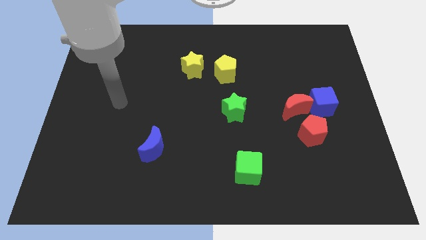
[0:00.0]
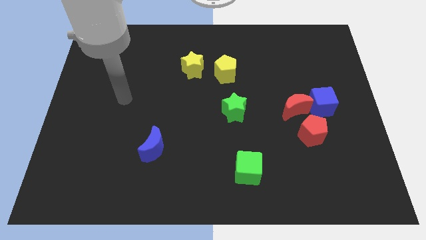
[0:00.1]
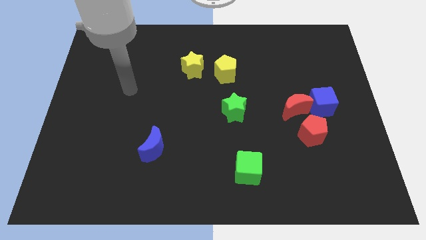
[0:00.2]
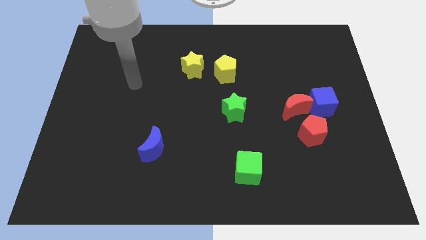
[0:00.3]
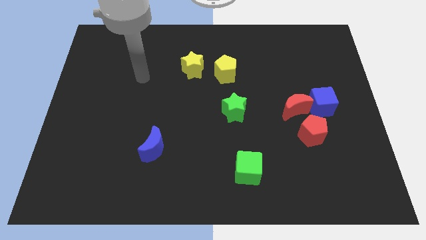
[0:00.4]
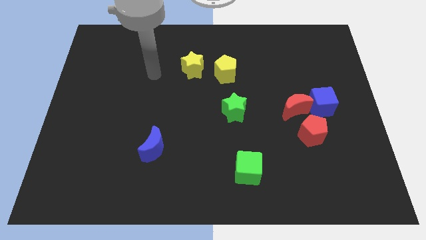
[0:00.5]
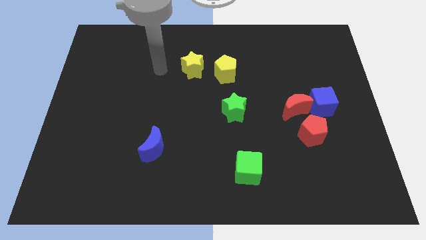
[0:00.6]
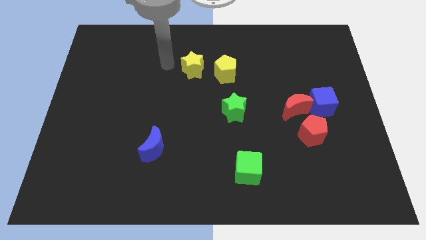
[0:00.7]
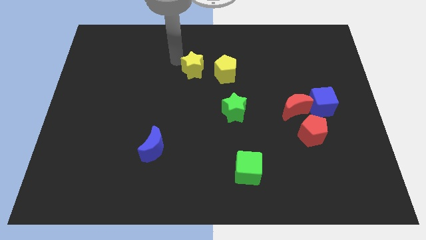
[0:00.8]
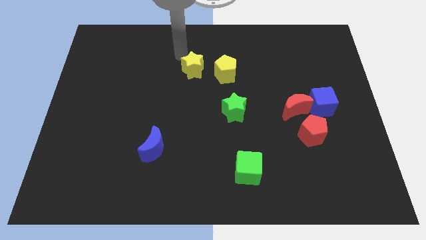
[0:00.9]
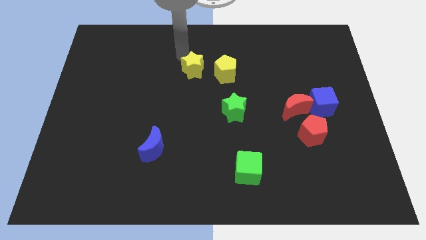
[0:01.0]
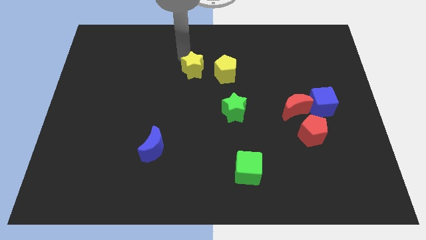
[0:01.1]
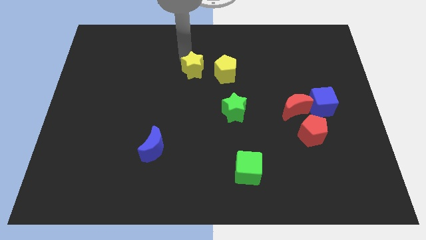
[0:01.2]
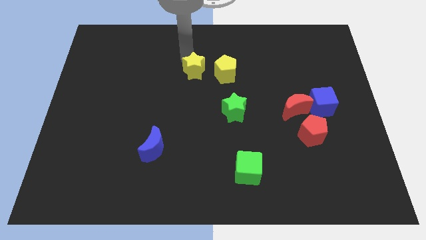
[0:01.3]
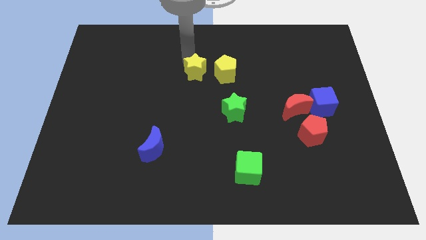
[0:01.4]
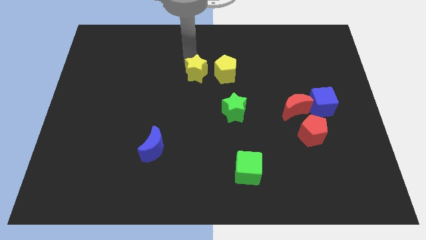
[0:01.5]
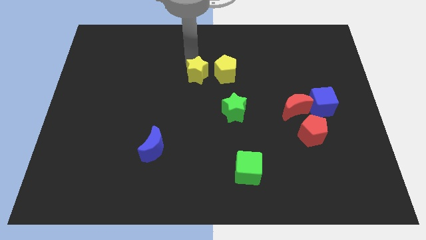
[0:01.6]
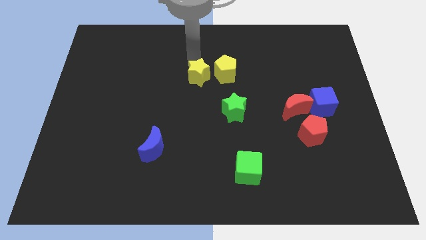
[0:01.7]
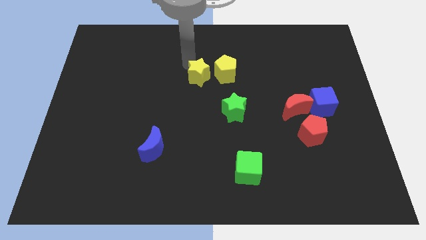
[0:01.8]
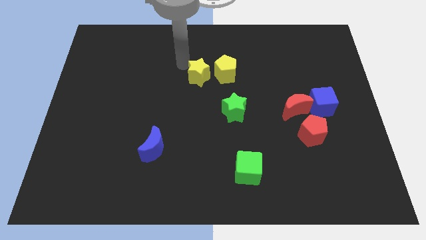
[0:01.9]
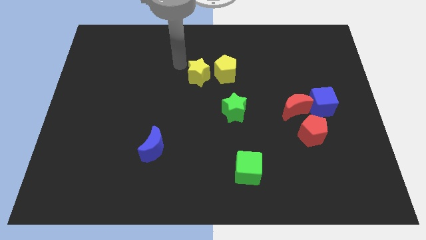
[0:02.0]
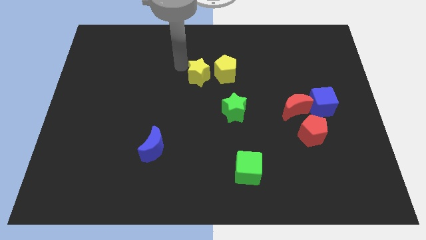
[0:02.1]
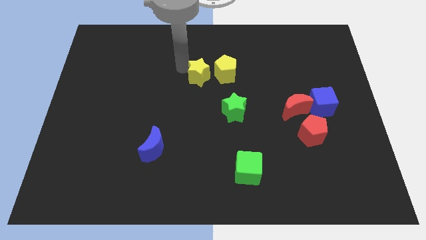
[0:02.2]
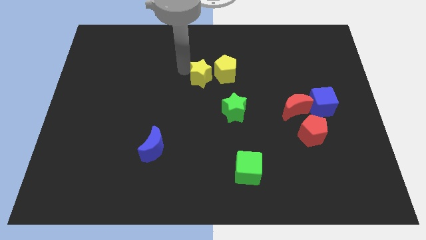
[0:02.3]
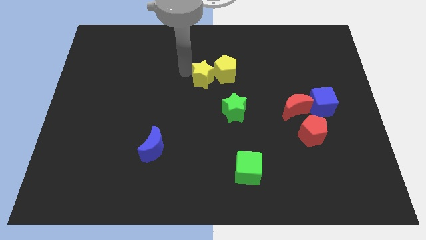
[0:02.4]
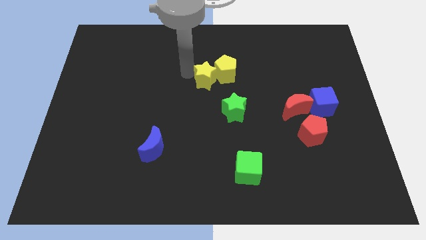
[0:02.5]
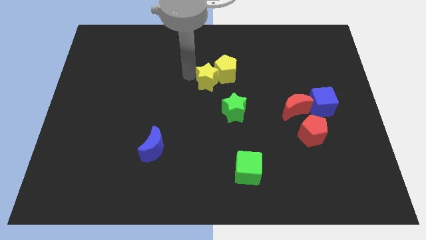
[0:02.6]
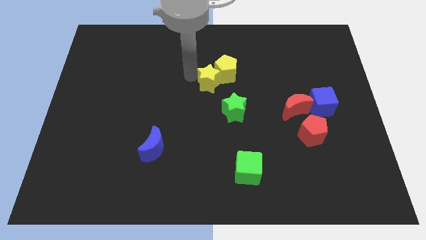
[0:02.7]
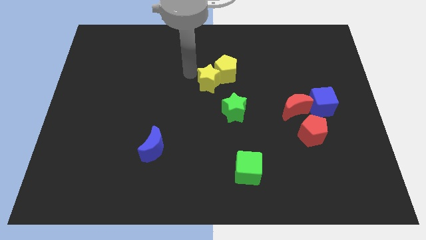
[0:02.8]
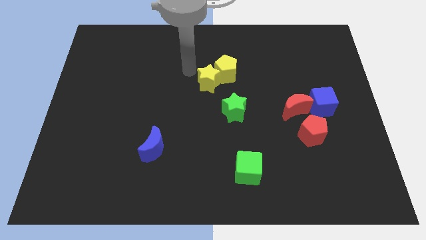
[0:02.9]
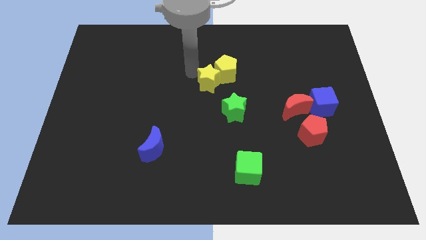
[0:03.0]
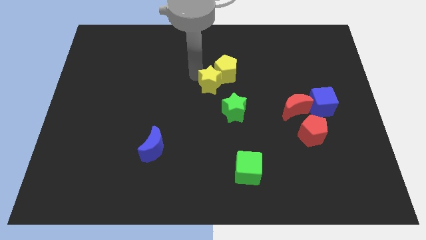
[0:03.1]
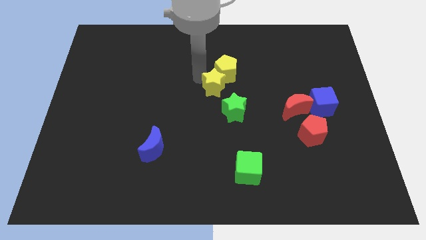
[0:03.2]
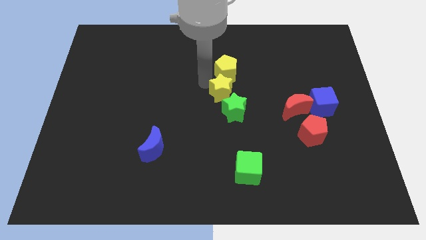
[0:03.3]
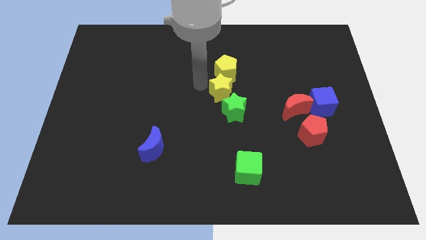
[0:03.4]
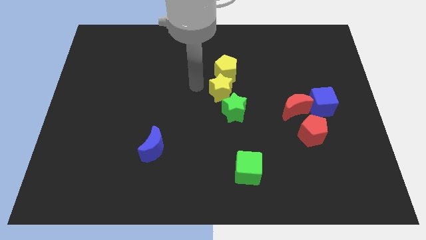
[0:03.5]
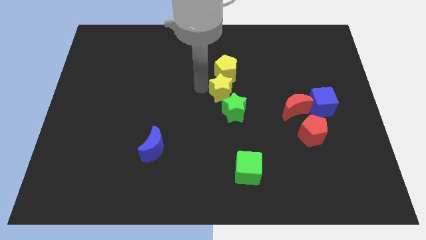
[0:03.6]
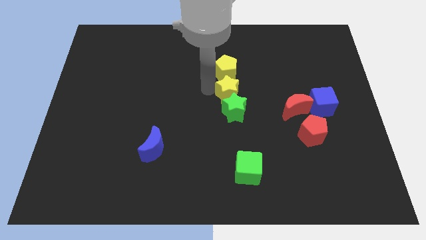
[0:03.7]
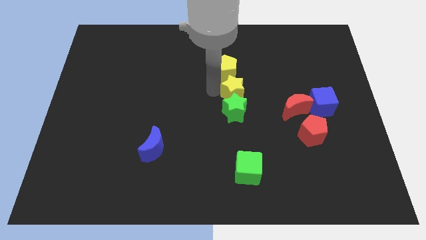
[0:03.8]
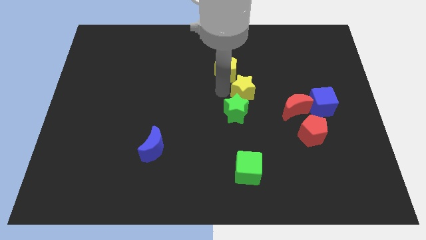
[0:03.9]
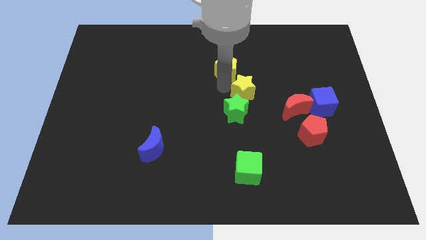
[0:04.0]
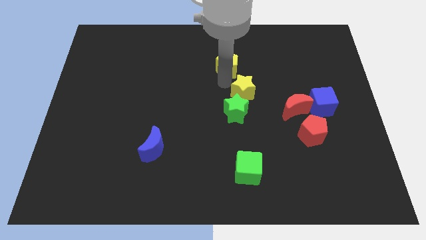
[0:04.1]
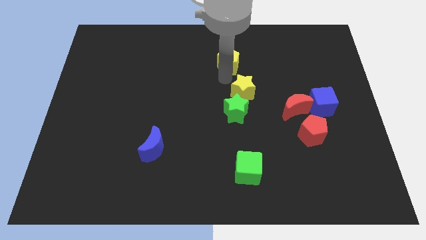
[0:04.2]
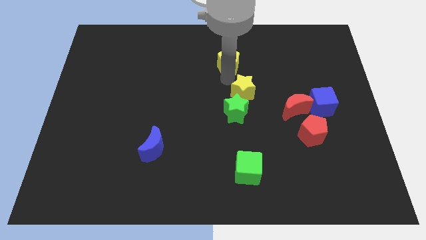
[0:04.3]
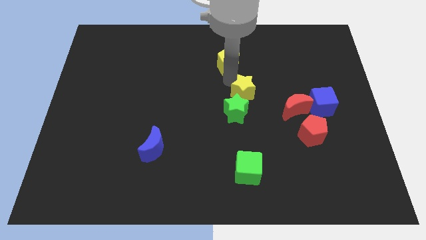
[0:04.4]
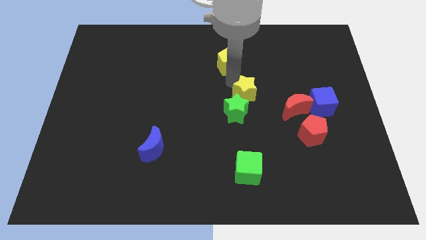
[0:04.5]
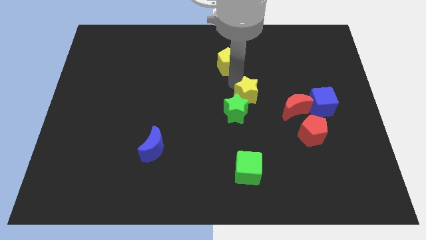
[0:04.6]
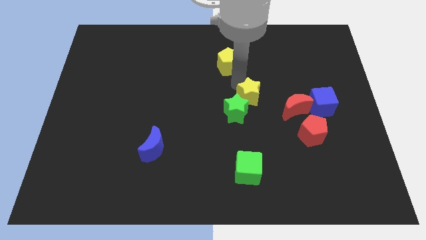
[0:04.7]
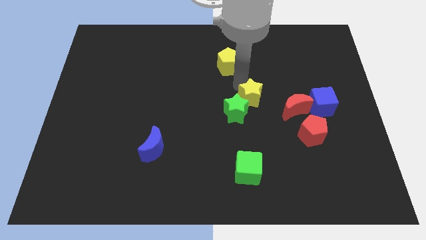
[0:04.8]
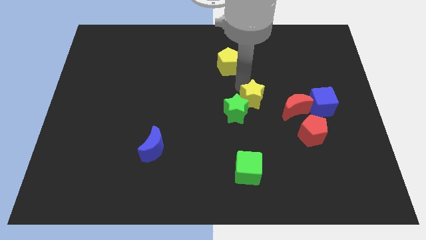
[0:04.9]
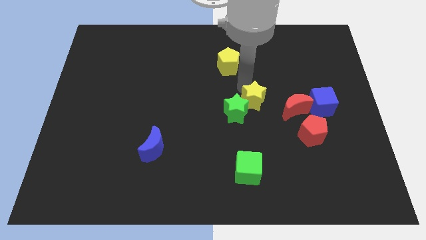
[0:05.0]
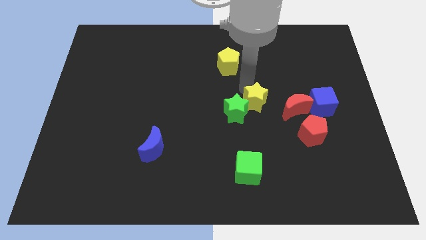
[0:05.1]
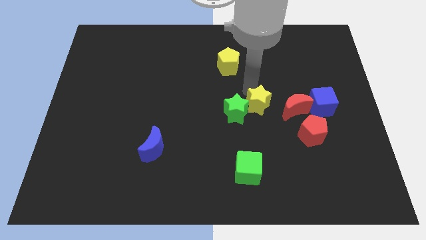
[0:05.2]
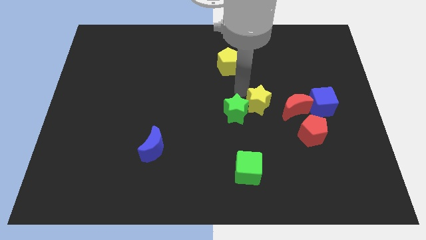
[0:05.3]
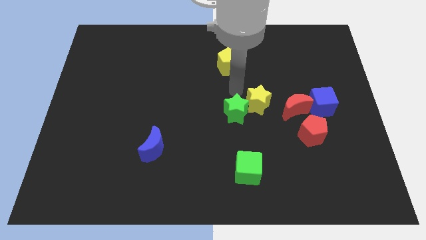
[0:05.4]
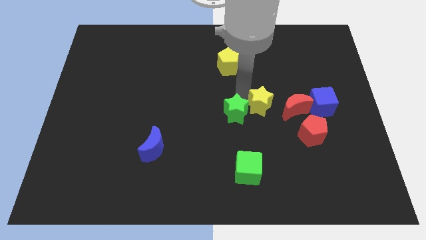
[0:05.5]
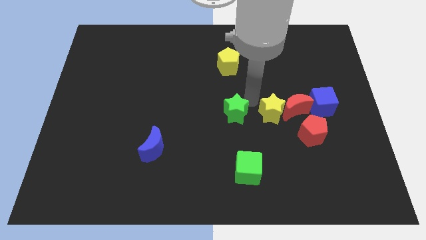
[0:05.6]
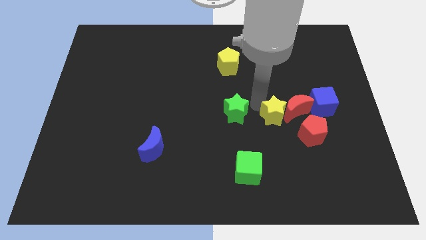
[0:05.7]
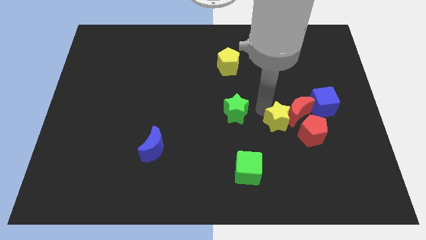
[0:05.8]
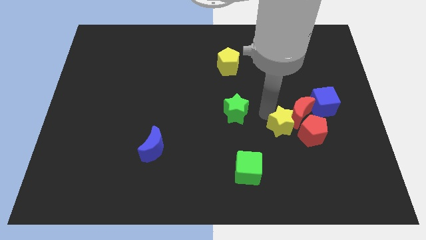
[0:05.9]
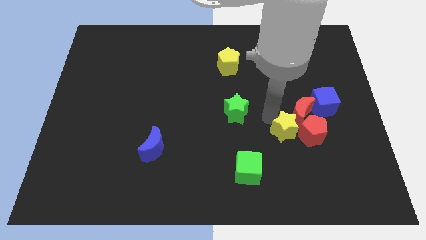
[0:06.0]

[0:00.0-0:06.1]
slide the yellow star to the red pentagon

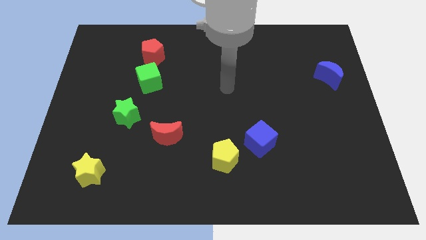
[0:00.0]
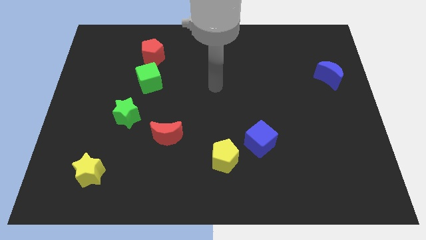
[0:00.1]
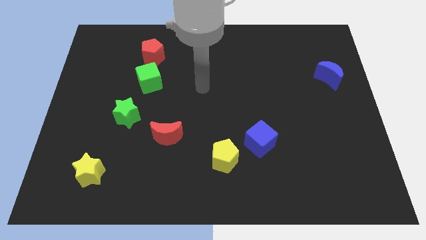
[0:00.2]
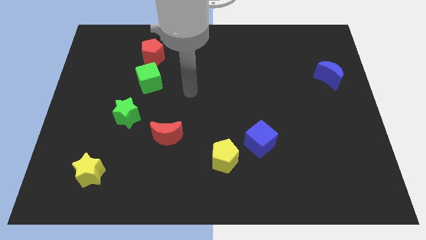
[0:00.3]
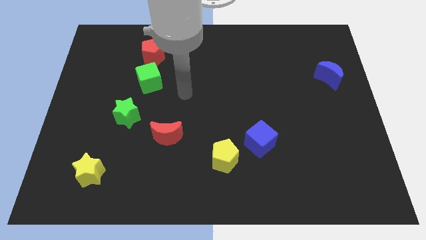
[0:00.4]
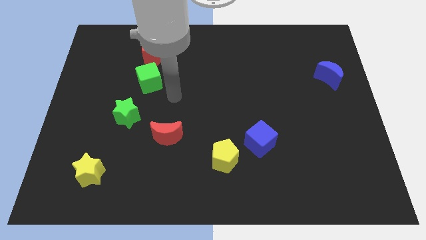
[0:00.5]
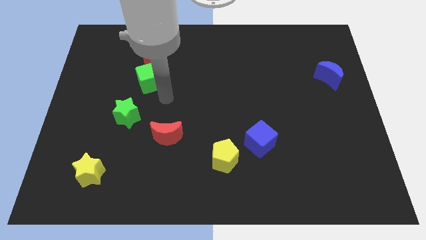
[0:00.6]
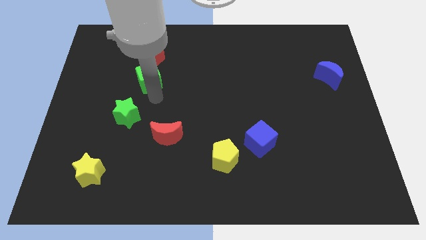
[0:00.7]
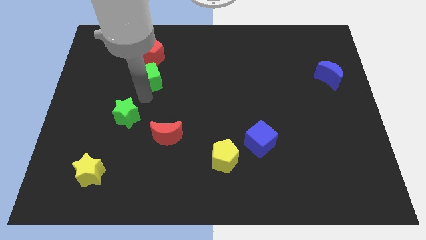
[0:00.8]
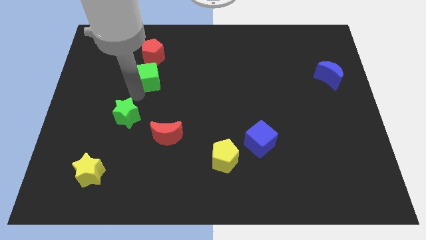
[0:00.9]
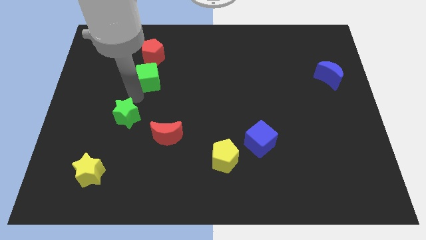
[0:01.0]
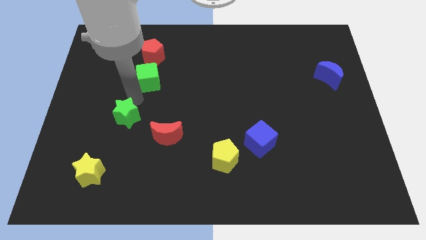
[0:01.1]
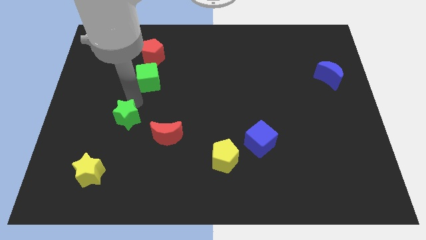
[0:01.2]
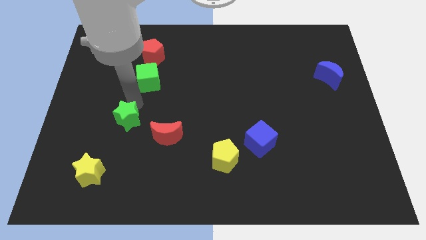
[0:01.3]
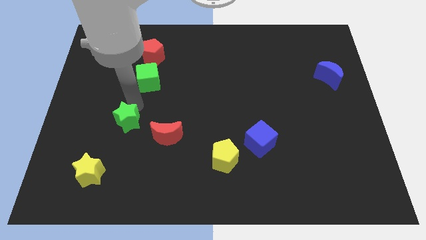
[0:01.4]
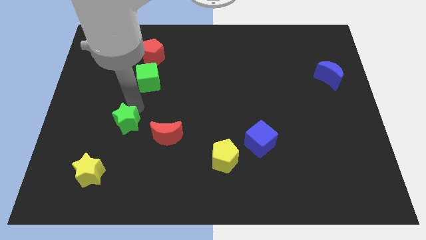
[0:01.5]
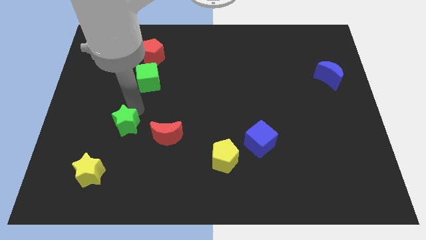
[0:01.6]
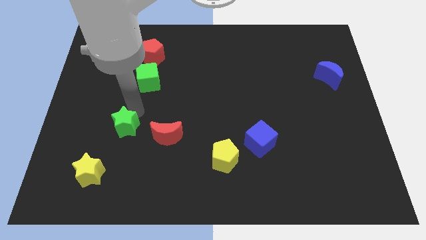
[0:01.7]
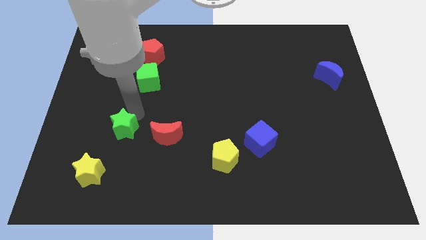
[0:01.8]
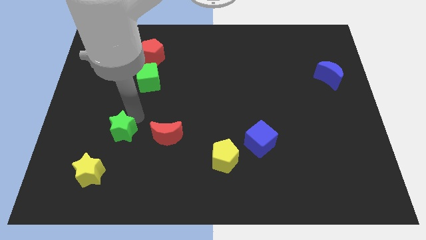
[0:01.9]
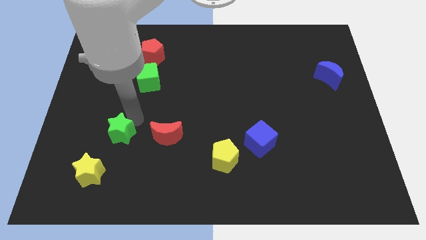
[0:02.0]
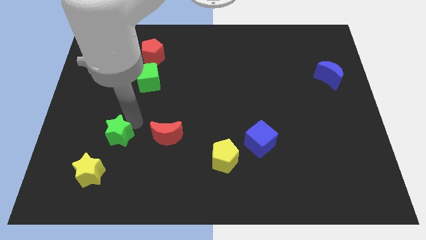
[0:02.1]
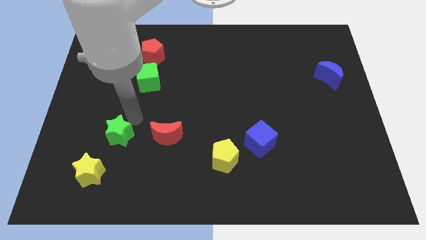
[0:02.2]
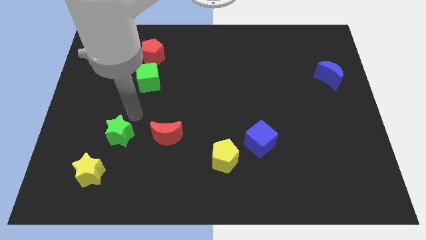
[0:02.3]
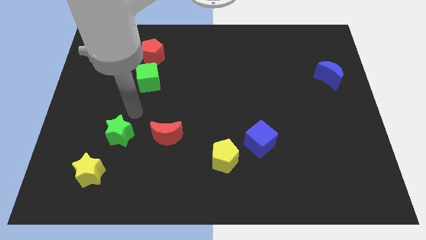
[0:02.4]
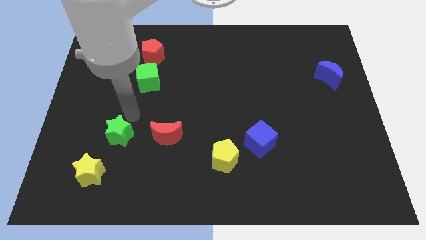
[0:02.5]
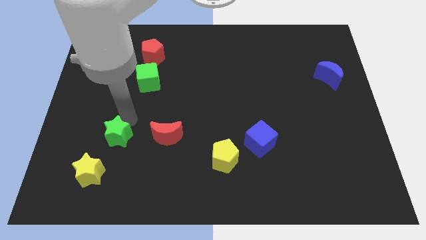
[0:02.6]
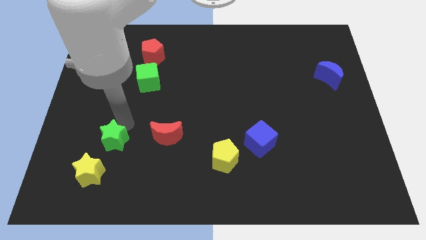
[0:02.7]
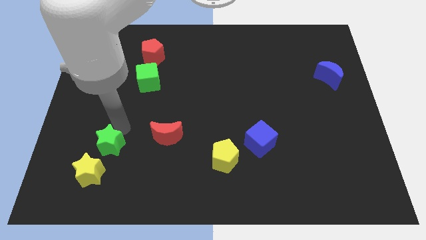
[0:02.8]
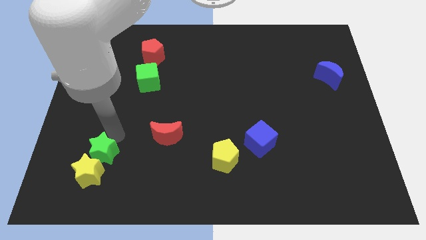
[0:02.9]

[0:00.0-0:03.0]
push the green star next to the yellow star
